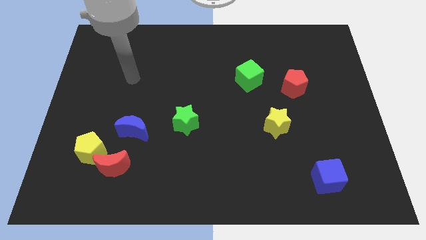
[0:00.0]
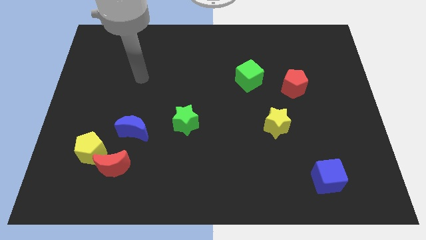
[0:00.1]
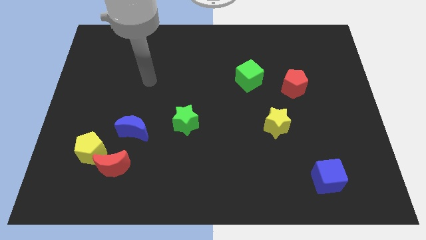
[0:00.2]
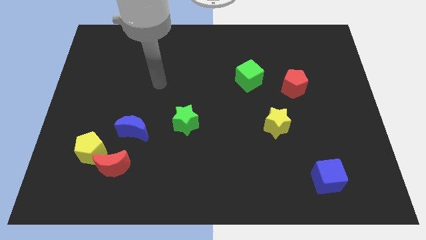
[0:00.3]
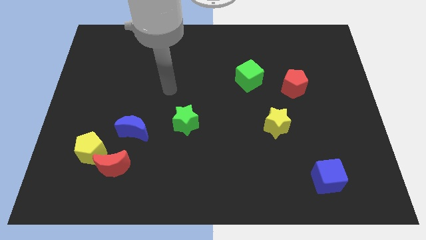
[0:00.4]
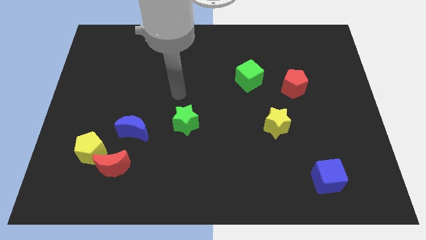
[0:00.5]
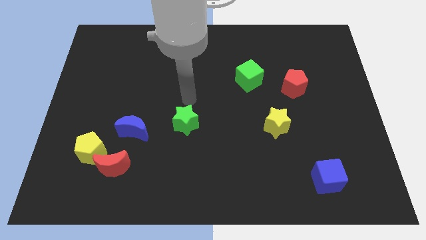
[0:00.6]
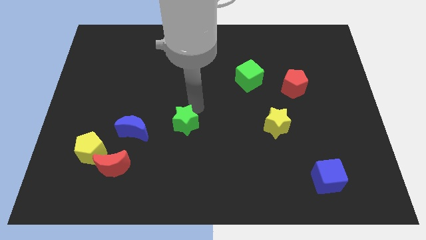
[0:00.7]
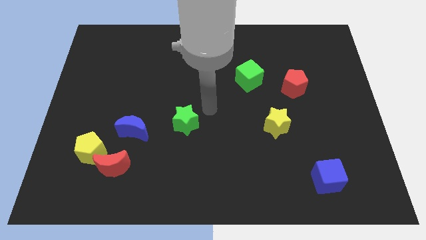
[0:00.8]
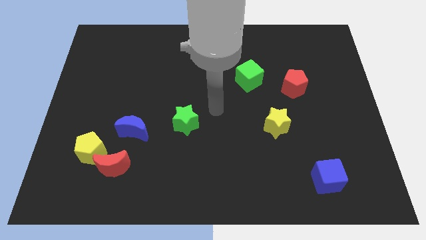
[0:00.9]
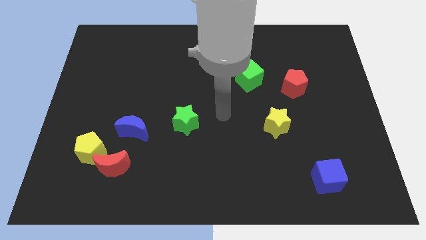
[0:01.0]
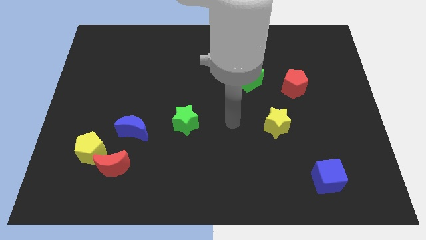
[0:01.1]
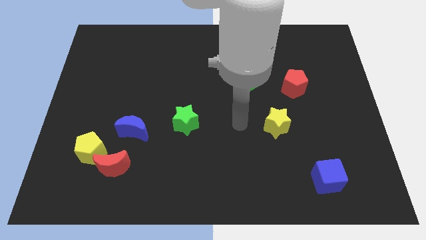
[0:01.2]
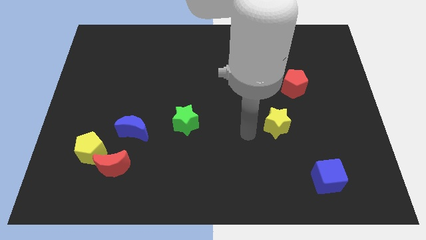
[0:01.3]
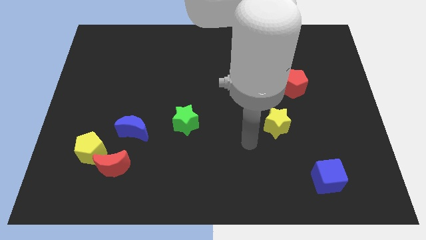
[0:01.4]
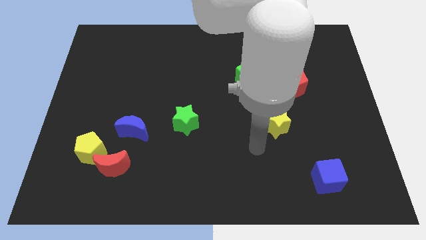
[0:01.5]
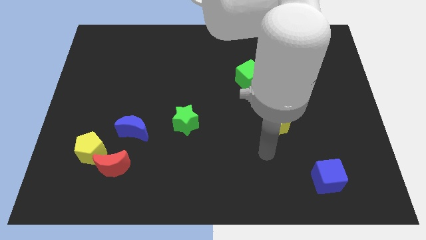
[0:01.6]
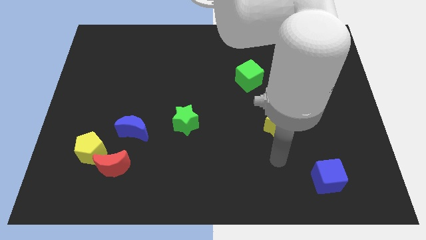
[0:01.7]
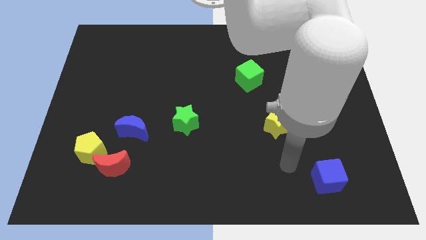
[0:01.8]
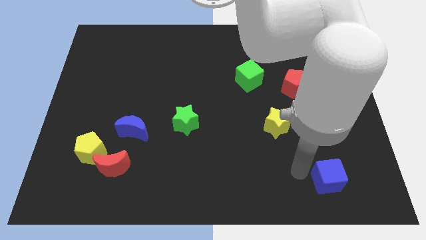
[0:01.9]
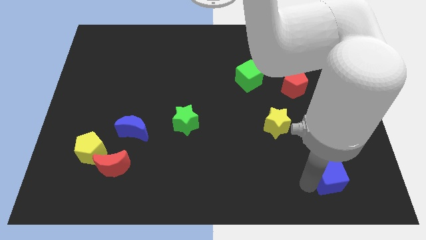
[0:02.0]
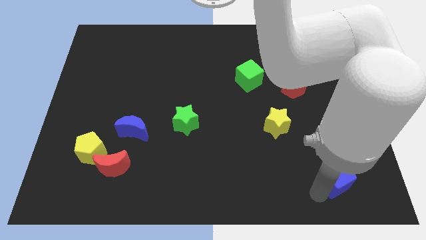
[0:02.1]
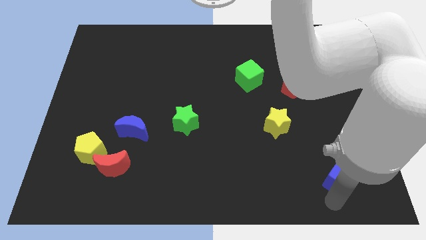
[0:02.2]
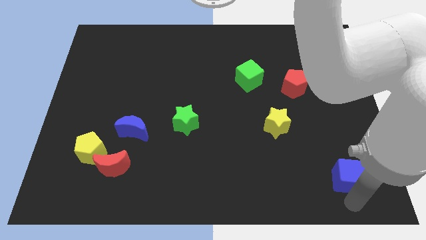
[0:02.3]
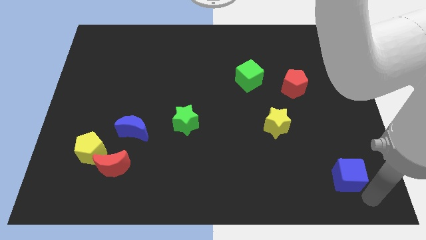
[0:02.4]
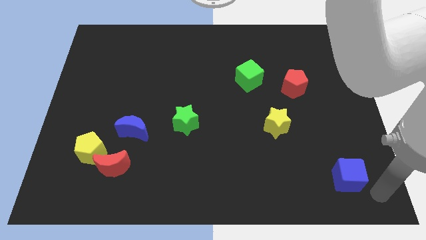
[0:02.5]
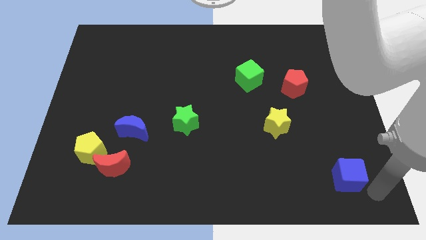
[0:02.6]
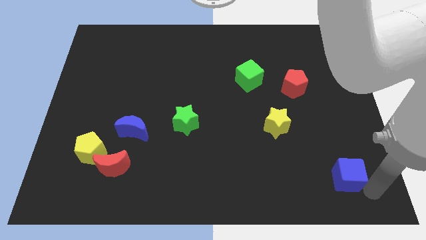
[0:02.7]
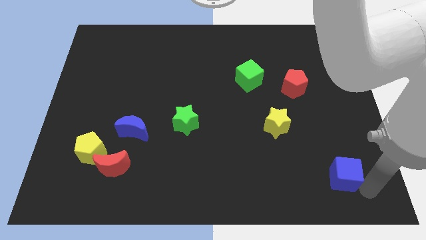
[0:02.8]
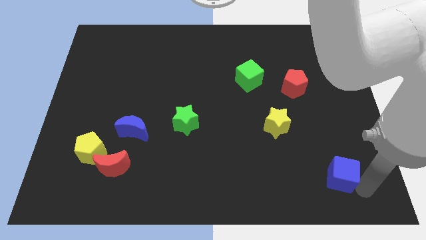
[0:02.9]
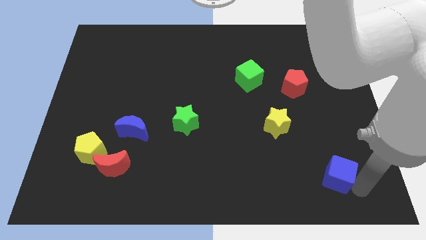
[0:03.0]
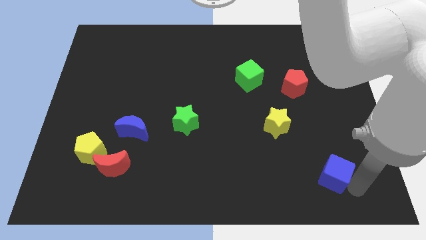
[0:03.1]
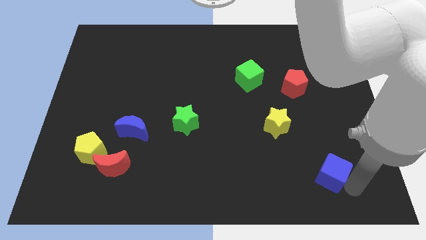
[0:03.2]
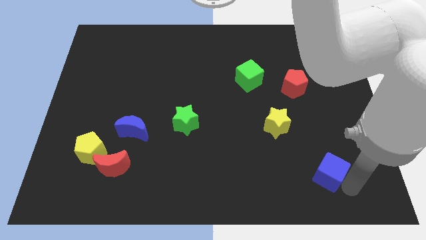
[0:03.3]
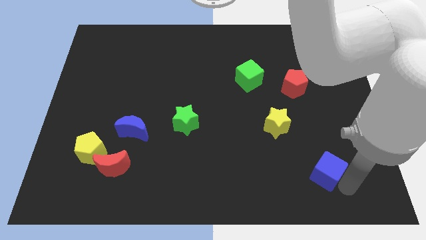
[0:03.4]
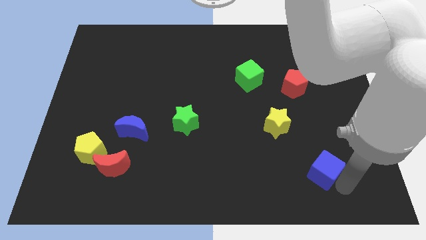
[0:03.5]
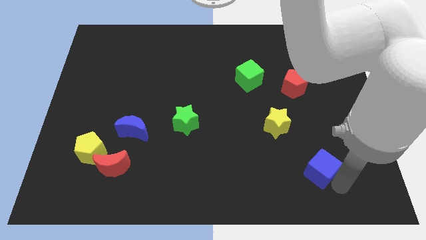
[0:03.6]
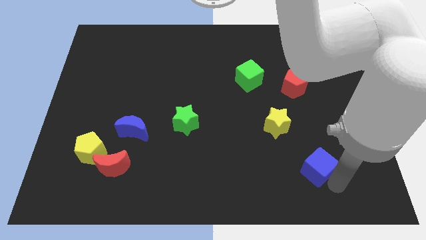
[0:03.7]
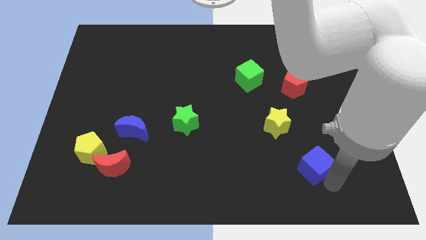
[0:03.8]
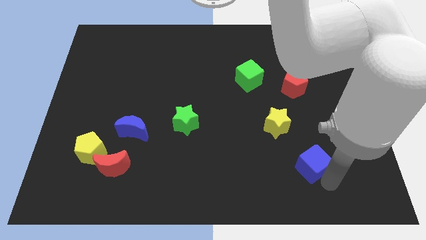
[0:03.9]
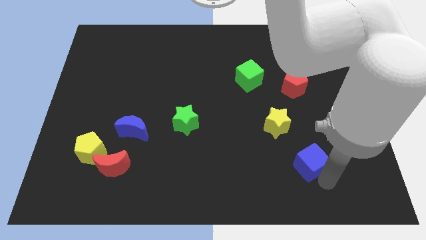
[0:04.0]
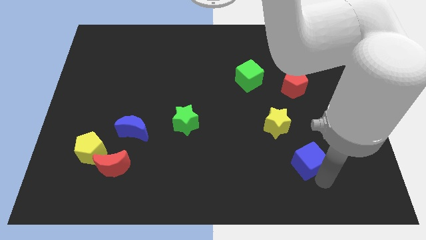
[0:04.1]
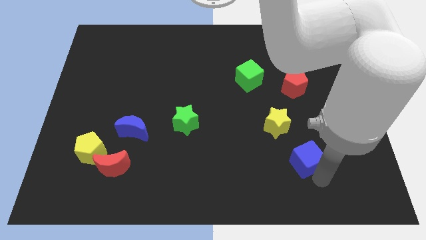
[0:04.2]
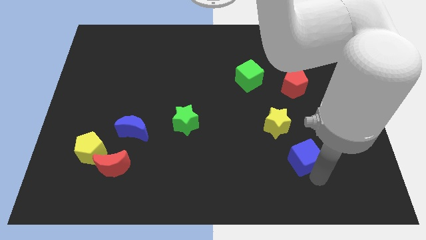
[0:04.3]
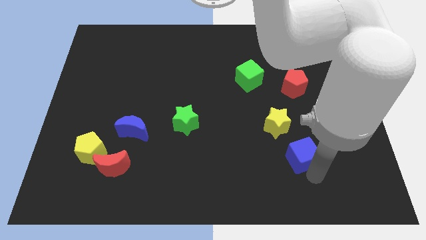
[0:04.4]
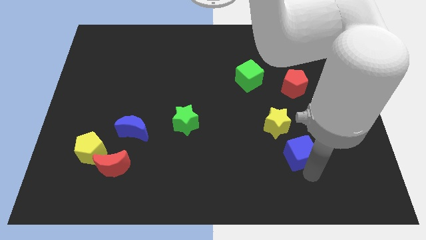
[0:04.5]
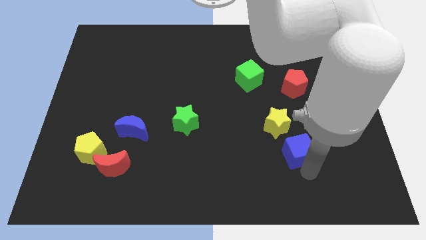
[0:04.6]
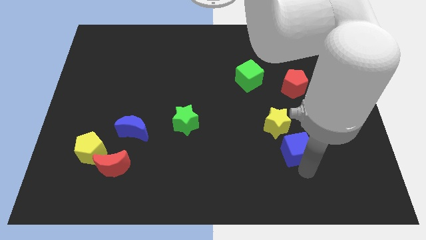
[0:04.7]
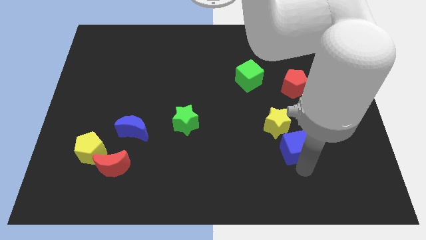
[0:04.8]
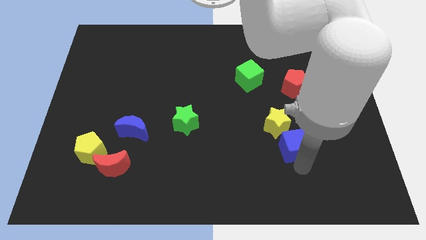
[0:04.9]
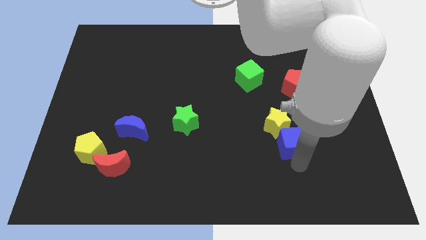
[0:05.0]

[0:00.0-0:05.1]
put the blue cube towards the yellow star

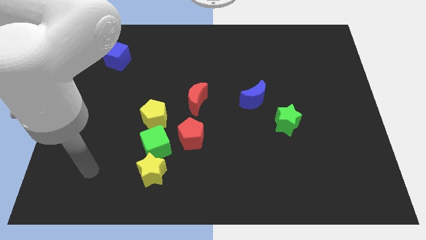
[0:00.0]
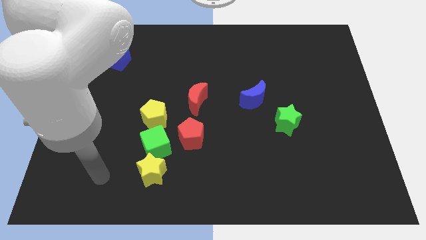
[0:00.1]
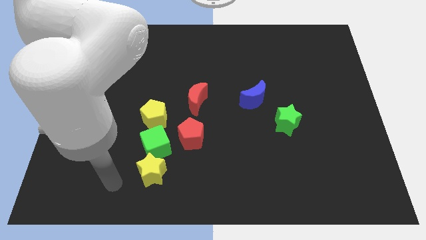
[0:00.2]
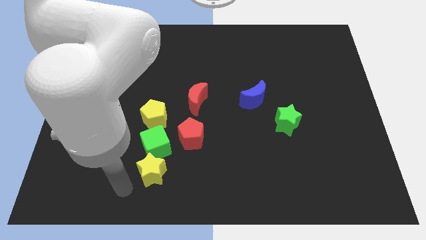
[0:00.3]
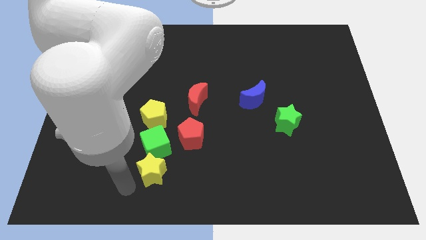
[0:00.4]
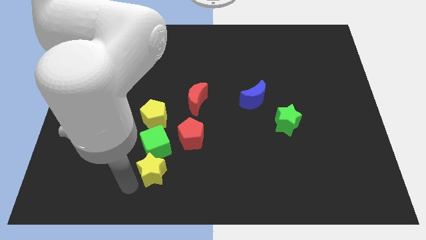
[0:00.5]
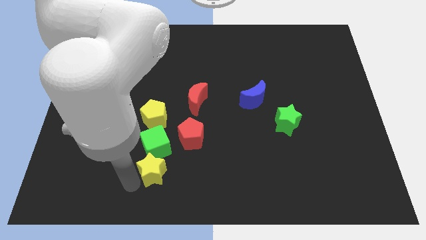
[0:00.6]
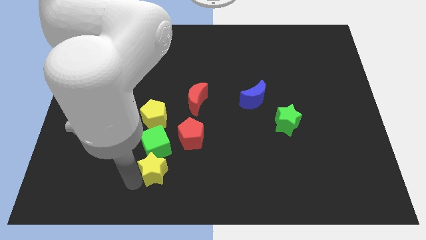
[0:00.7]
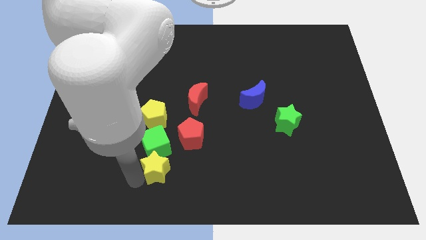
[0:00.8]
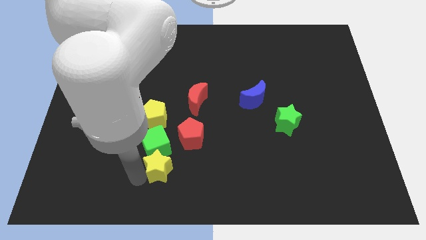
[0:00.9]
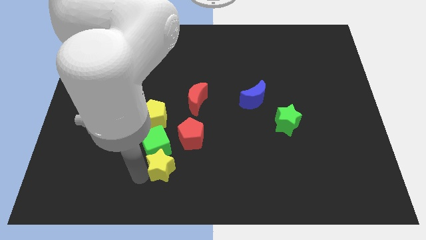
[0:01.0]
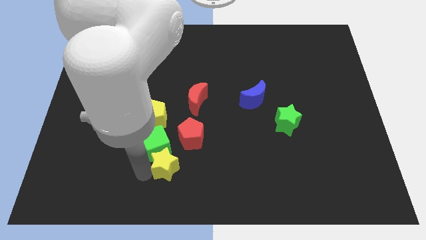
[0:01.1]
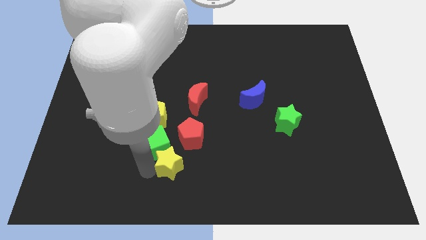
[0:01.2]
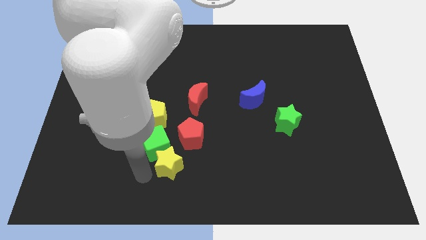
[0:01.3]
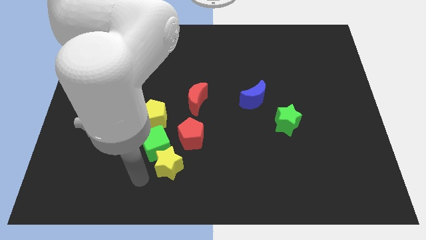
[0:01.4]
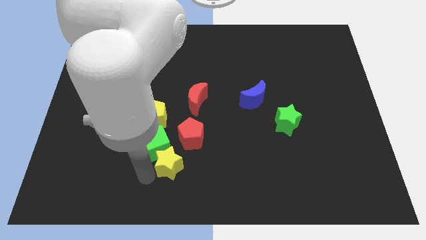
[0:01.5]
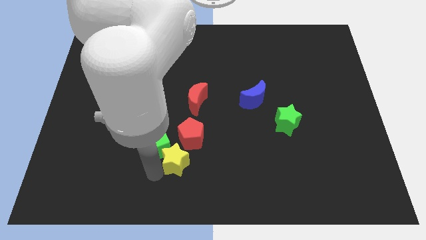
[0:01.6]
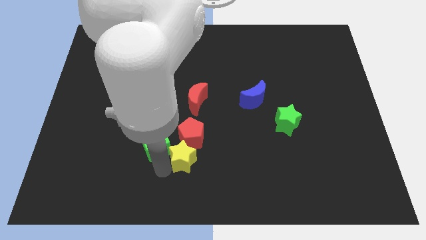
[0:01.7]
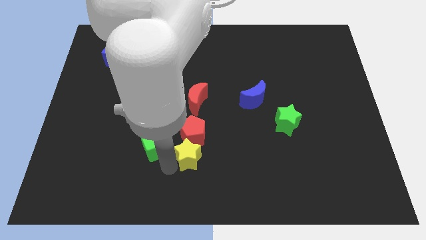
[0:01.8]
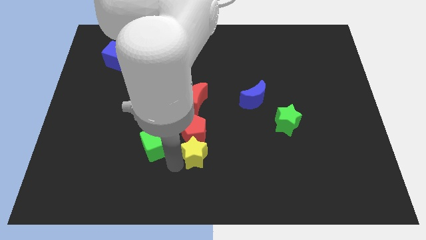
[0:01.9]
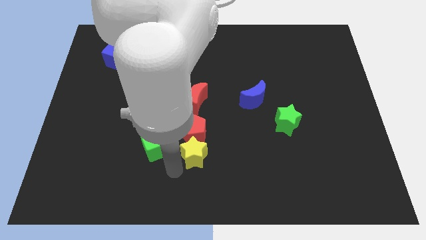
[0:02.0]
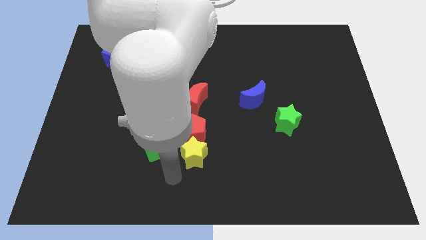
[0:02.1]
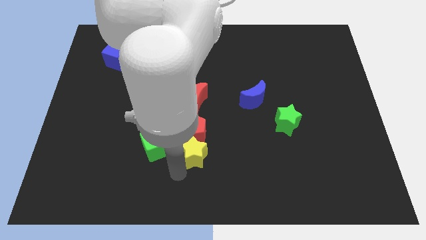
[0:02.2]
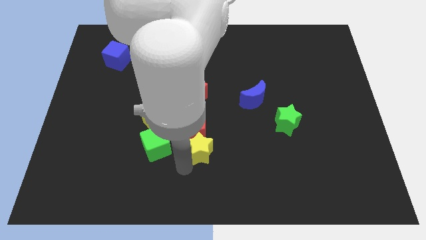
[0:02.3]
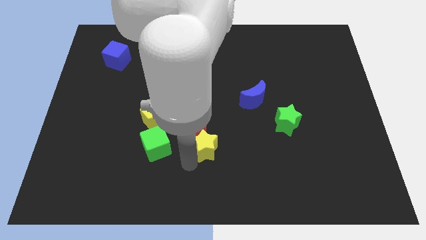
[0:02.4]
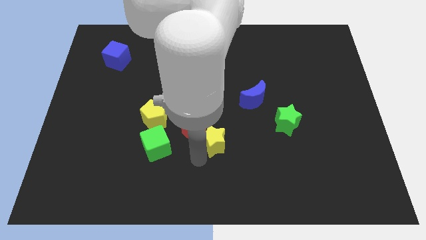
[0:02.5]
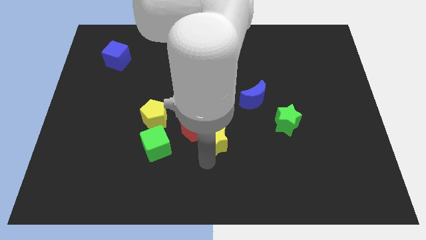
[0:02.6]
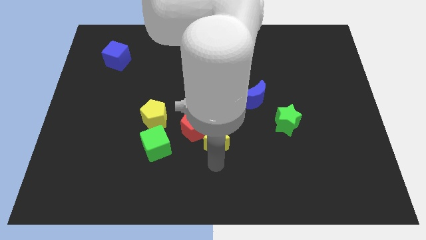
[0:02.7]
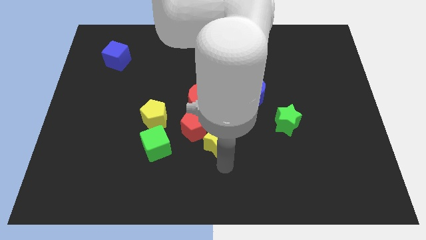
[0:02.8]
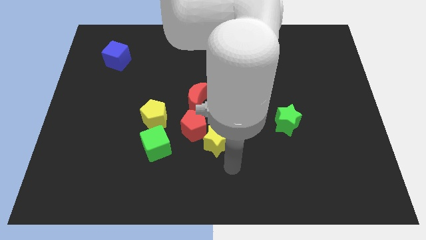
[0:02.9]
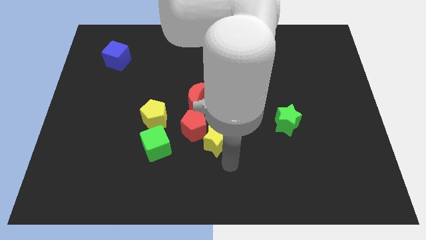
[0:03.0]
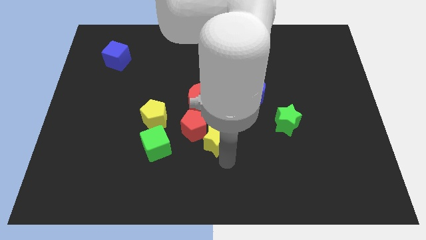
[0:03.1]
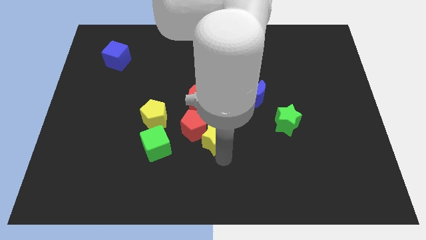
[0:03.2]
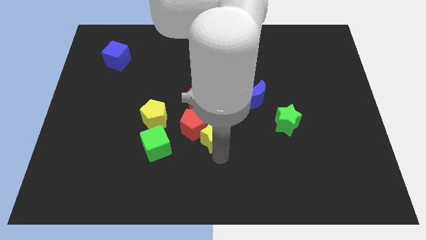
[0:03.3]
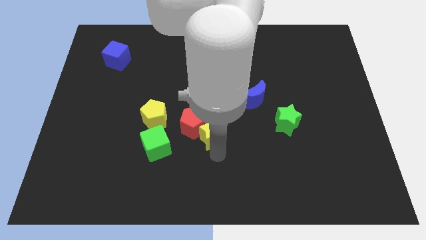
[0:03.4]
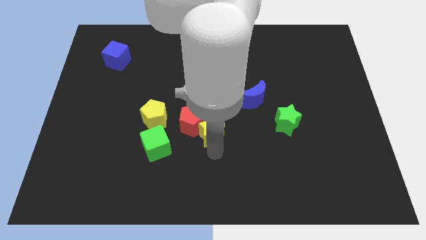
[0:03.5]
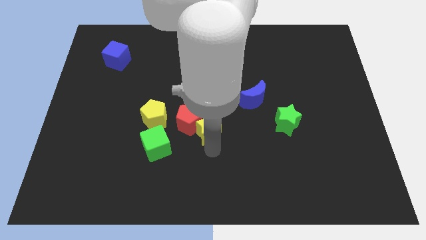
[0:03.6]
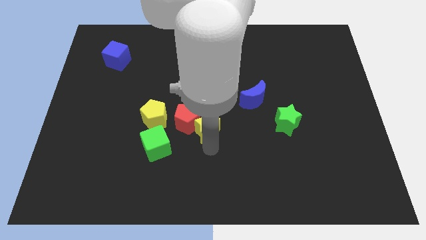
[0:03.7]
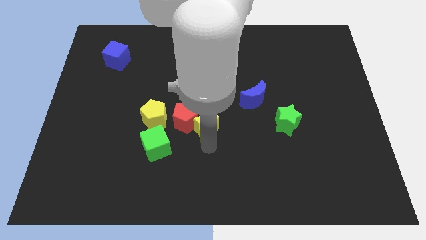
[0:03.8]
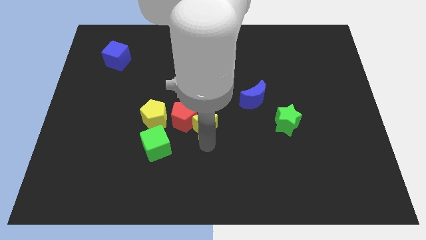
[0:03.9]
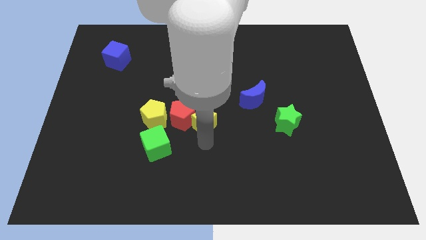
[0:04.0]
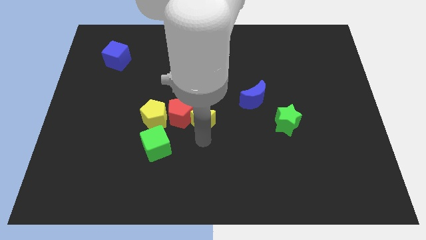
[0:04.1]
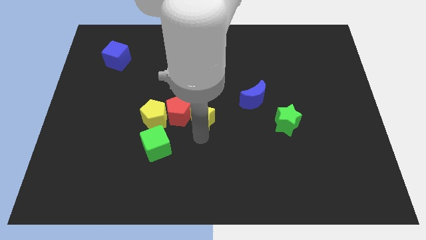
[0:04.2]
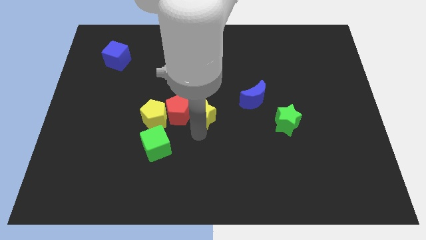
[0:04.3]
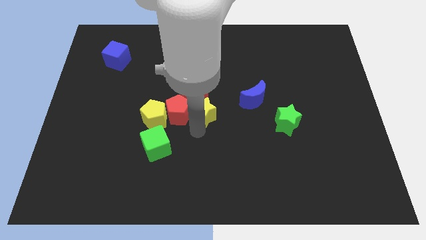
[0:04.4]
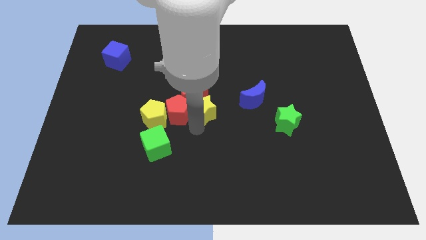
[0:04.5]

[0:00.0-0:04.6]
put the yellow star close to the red moon
